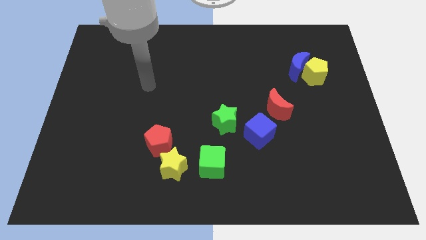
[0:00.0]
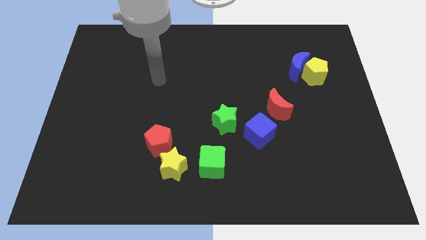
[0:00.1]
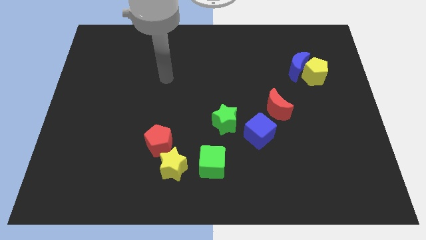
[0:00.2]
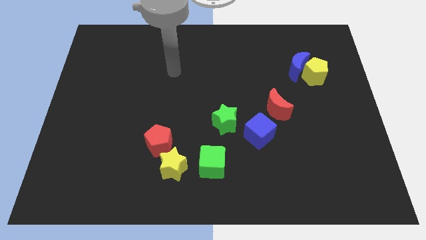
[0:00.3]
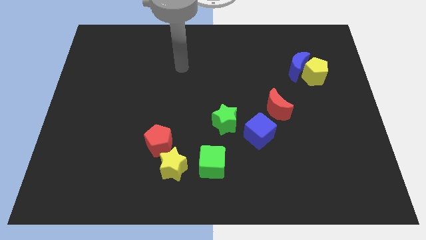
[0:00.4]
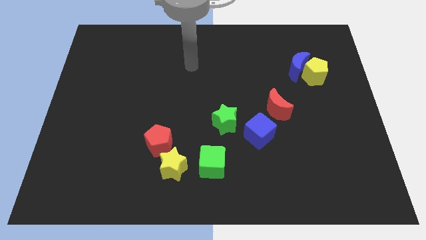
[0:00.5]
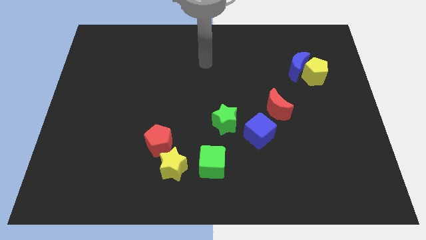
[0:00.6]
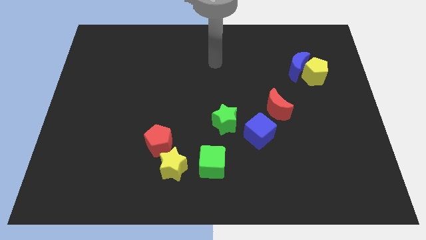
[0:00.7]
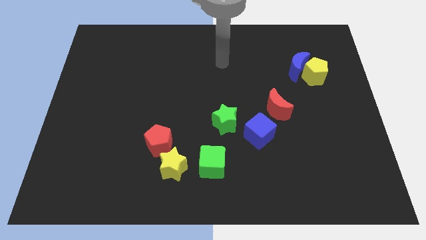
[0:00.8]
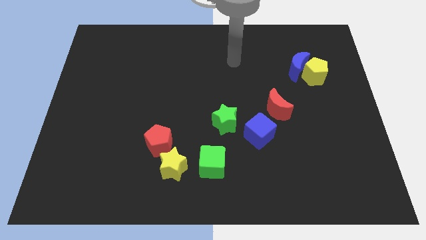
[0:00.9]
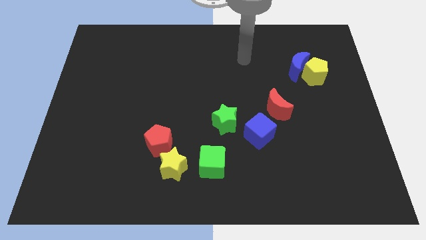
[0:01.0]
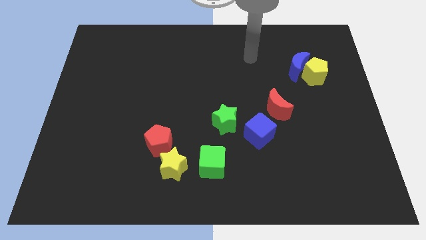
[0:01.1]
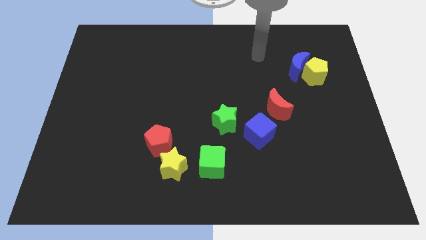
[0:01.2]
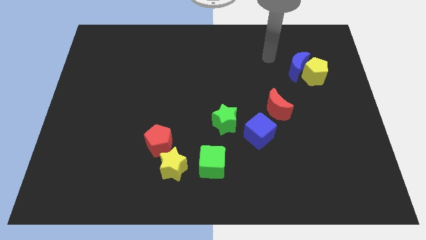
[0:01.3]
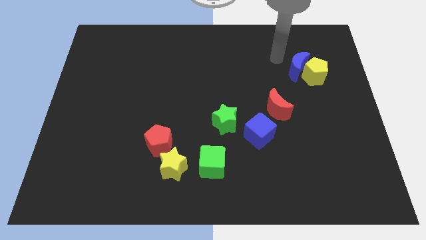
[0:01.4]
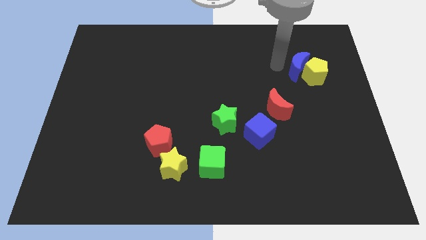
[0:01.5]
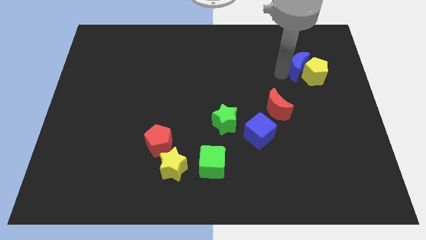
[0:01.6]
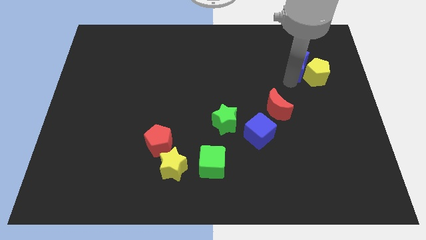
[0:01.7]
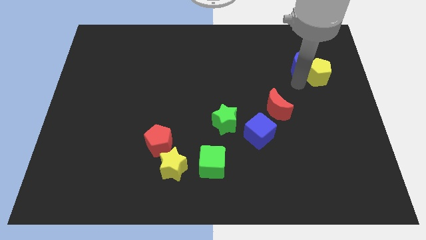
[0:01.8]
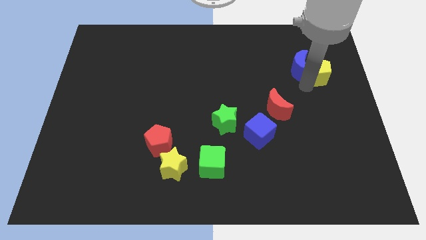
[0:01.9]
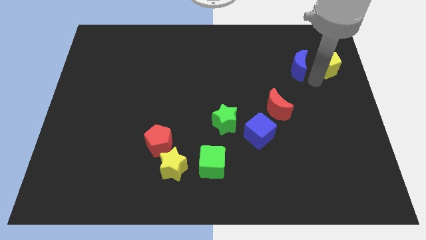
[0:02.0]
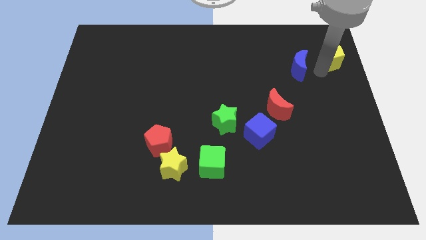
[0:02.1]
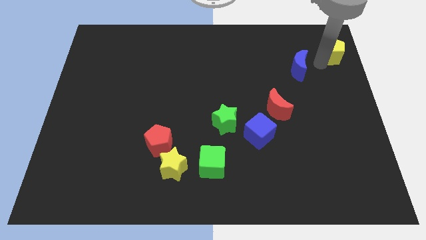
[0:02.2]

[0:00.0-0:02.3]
separate the blue moon from the yellow pentagon

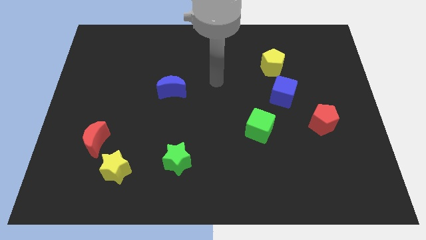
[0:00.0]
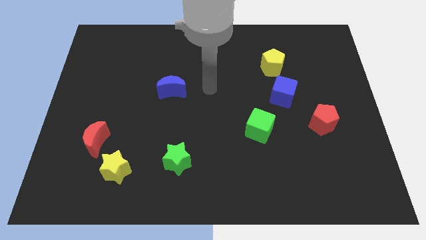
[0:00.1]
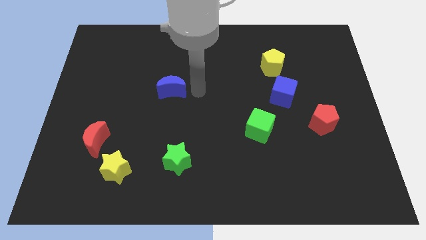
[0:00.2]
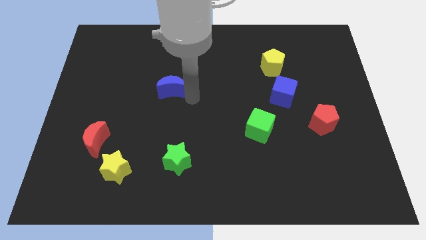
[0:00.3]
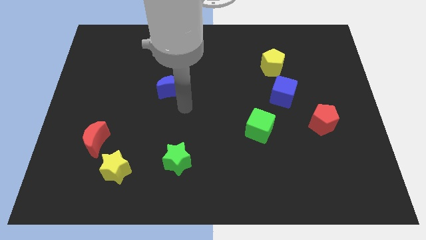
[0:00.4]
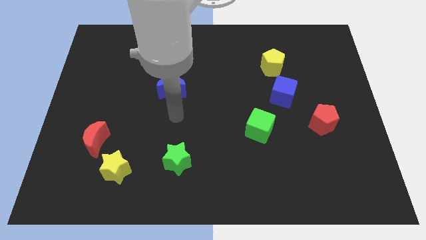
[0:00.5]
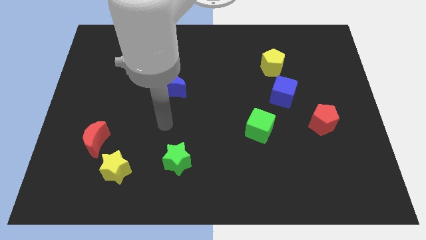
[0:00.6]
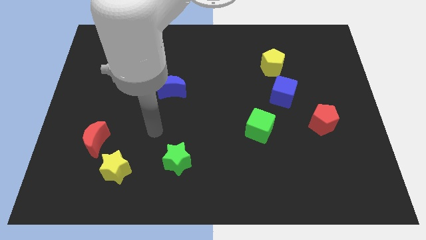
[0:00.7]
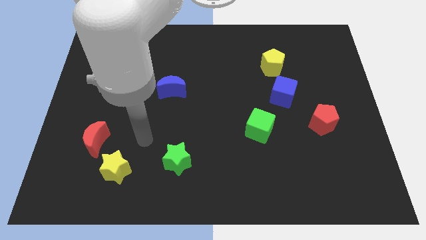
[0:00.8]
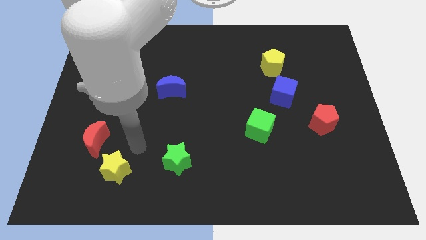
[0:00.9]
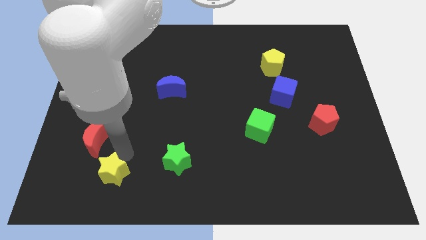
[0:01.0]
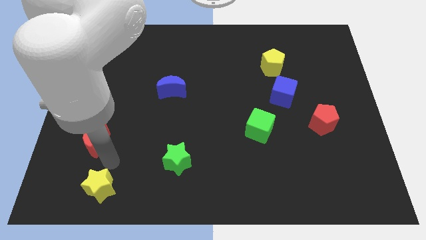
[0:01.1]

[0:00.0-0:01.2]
pull the red moon apart from the yellow star

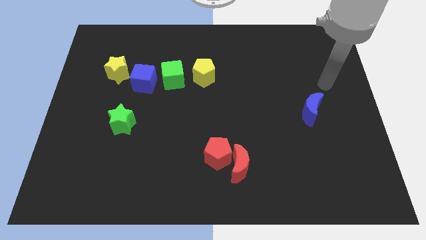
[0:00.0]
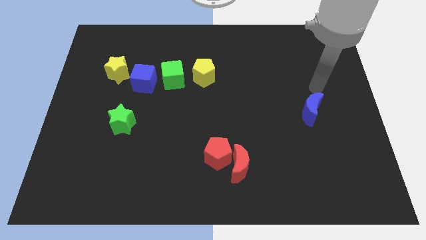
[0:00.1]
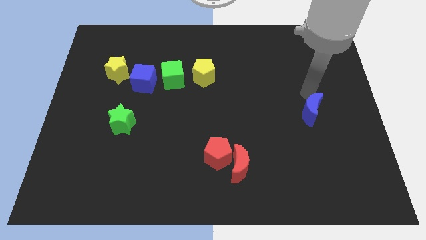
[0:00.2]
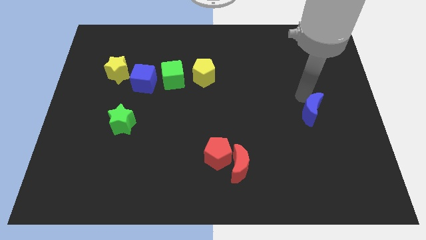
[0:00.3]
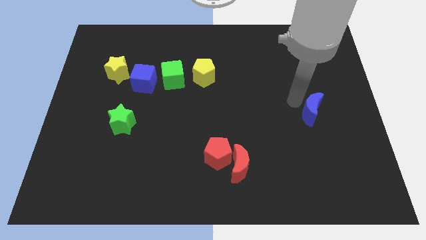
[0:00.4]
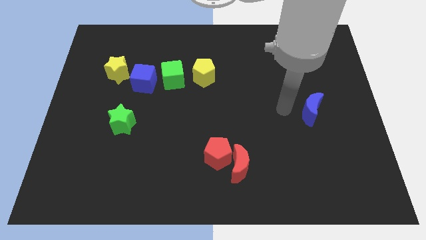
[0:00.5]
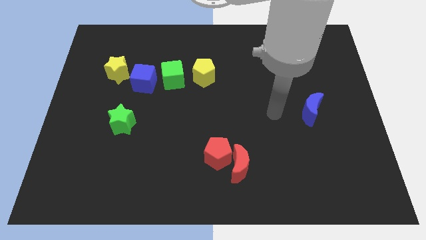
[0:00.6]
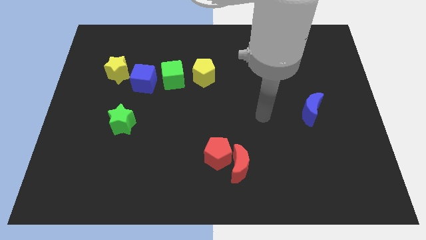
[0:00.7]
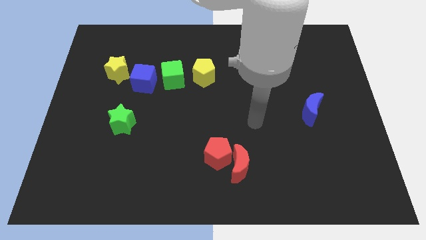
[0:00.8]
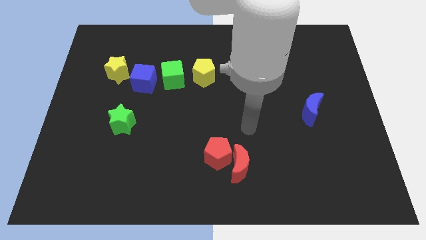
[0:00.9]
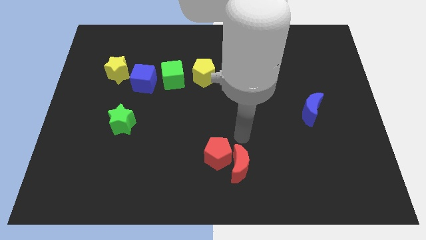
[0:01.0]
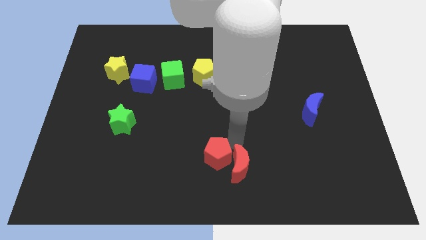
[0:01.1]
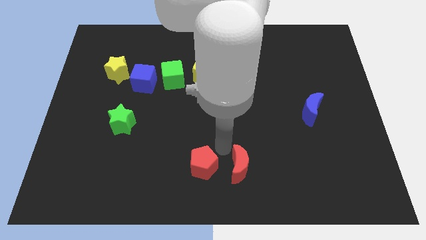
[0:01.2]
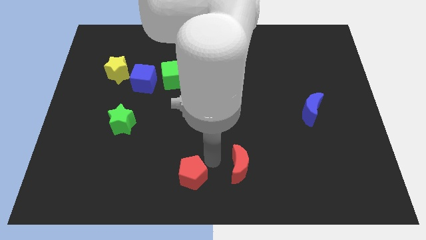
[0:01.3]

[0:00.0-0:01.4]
move the red moon away from the red pentagon

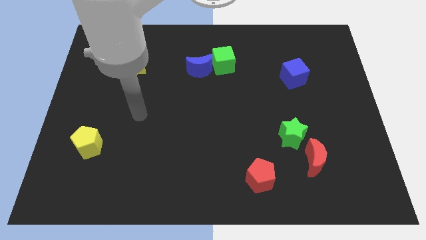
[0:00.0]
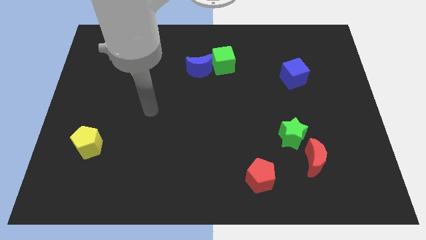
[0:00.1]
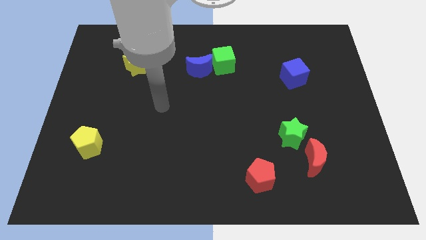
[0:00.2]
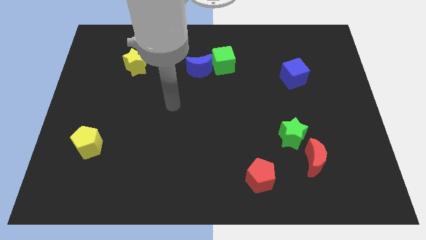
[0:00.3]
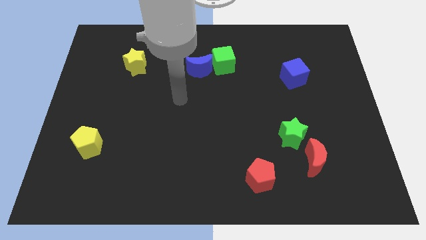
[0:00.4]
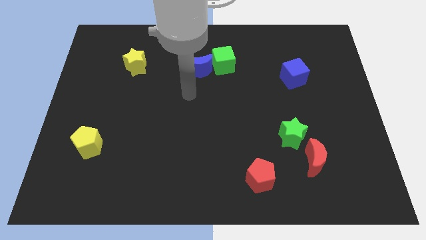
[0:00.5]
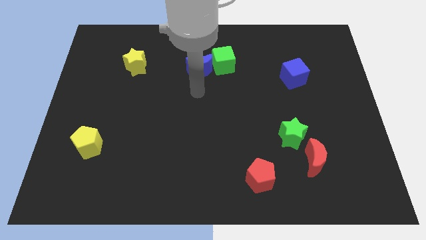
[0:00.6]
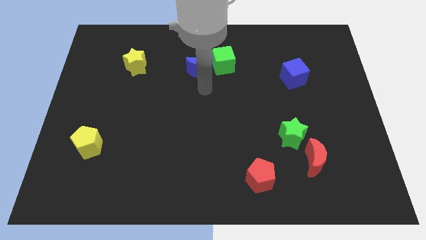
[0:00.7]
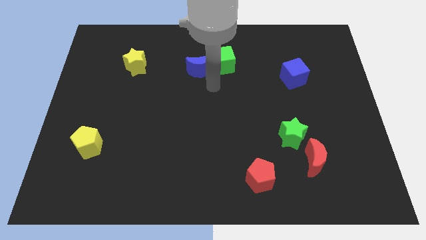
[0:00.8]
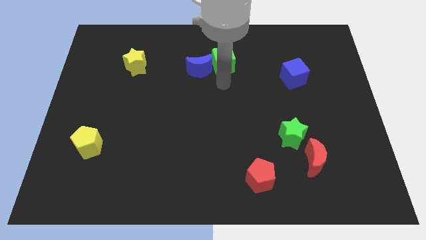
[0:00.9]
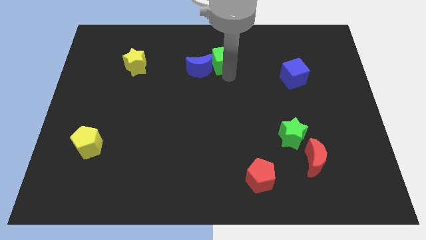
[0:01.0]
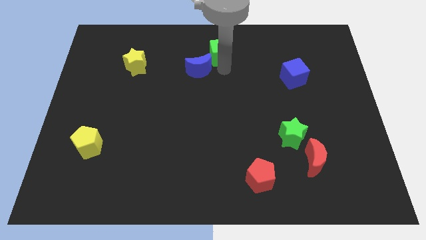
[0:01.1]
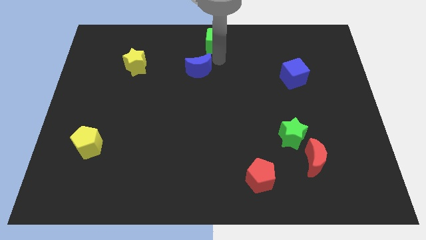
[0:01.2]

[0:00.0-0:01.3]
separate the blue moon from the green cube

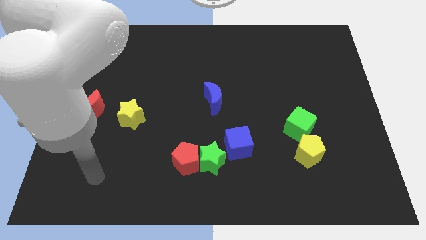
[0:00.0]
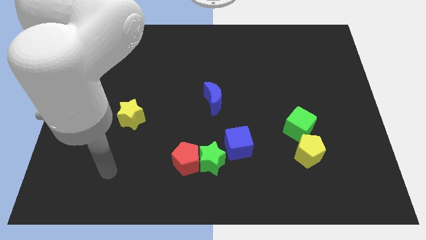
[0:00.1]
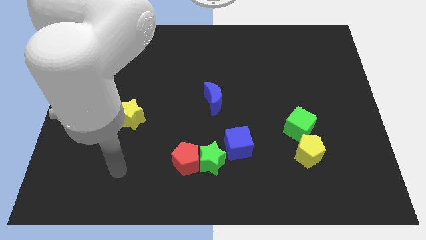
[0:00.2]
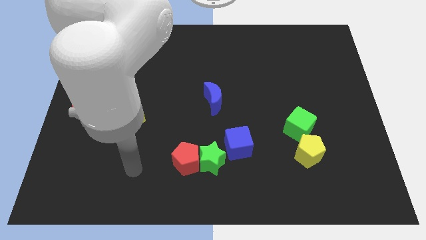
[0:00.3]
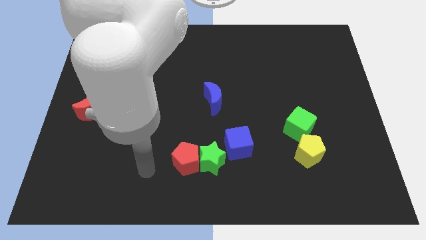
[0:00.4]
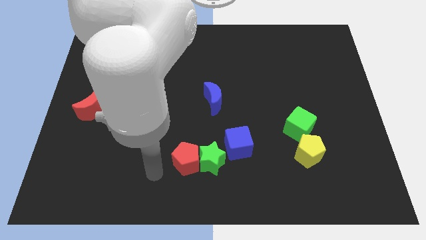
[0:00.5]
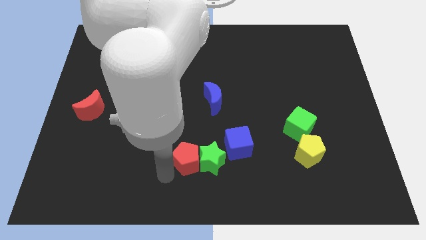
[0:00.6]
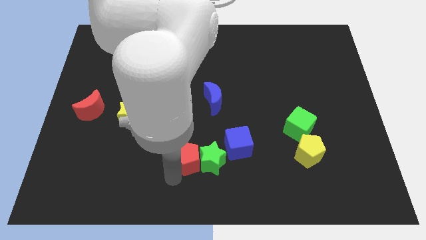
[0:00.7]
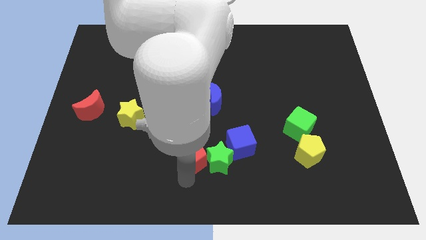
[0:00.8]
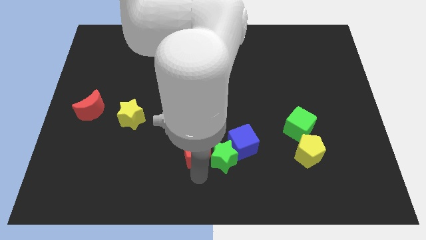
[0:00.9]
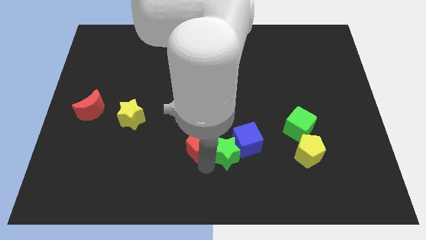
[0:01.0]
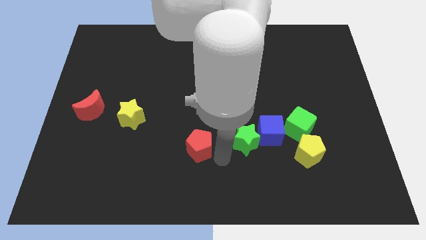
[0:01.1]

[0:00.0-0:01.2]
pull the red pentagon apart from the green star

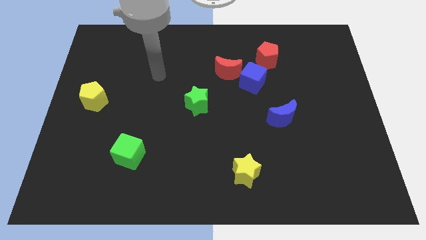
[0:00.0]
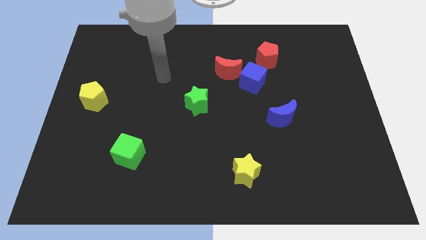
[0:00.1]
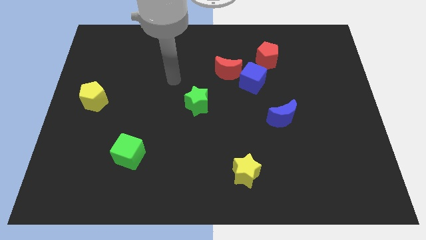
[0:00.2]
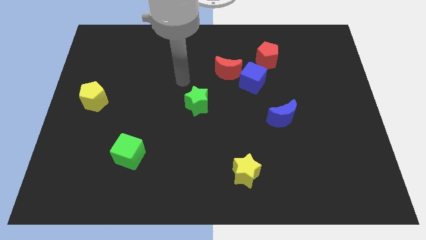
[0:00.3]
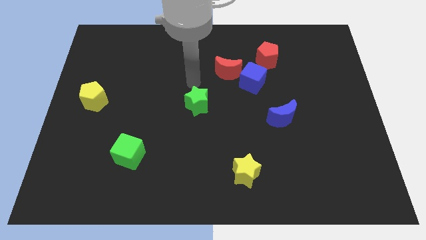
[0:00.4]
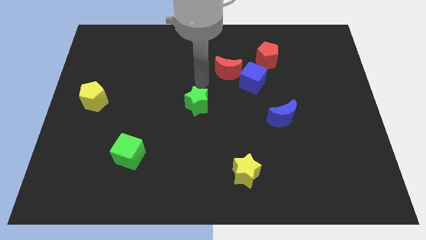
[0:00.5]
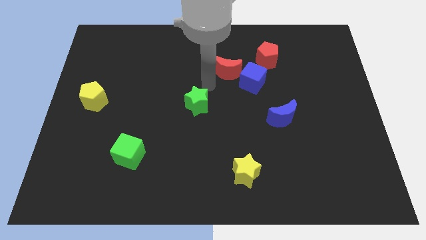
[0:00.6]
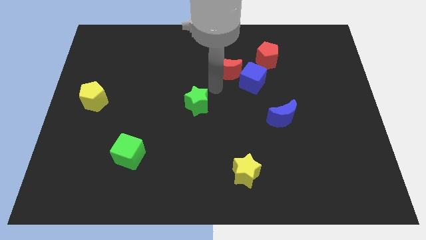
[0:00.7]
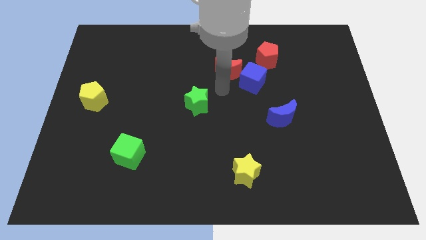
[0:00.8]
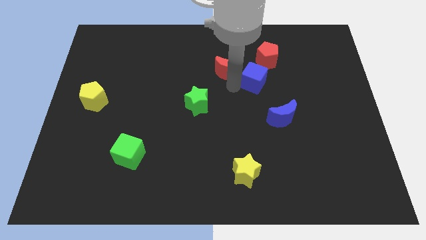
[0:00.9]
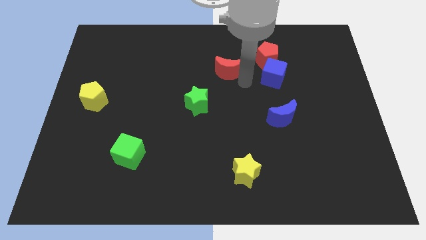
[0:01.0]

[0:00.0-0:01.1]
move the red moon away from the blue cube

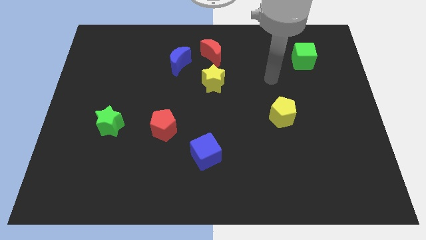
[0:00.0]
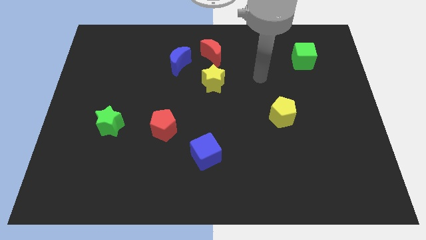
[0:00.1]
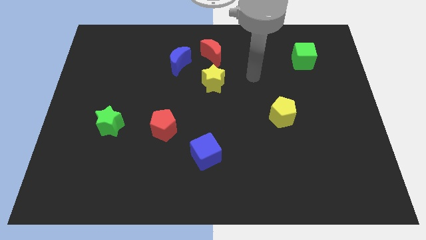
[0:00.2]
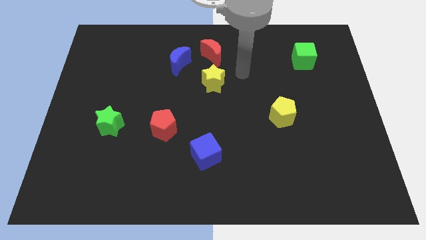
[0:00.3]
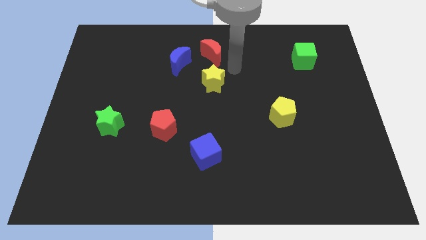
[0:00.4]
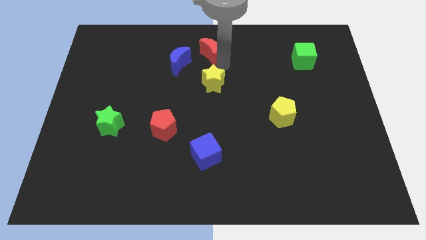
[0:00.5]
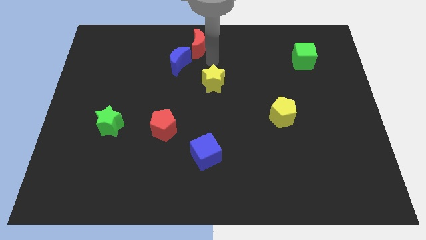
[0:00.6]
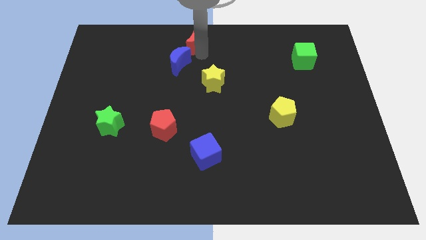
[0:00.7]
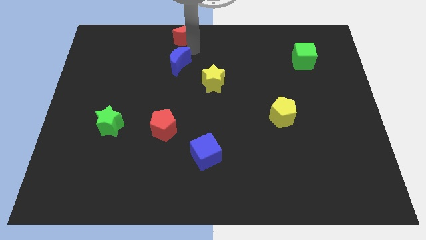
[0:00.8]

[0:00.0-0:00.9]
pull the blue moon apart from the red moon

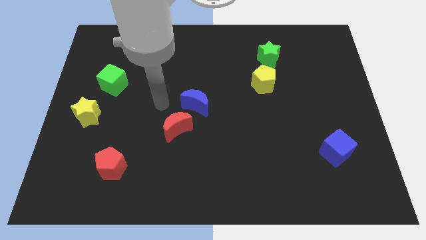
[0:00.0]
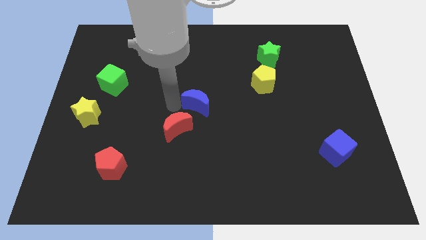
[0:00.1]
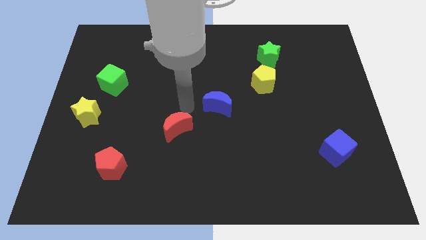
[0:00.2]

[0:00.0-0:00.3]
pull the red moon apart from the blue moon
